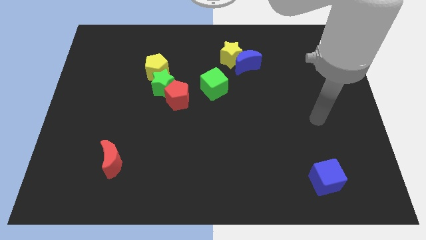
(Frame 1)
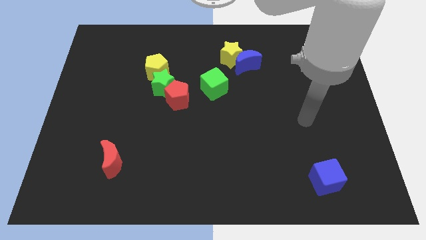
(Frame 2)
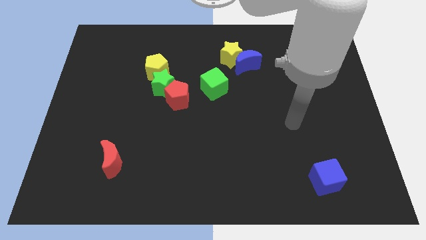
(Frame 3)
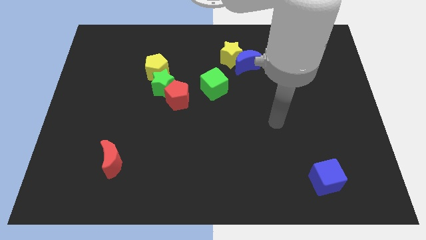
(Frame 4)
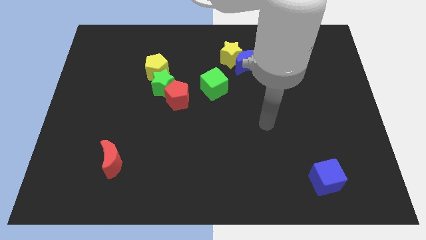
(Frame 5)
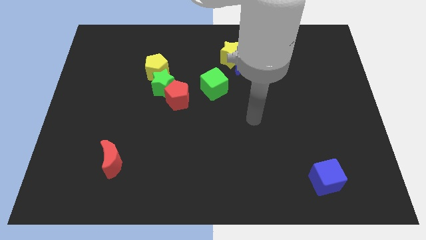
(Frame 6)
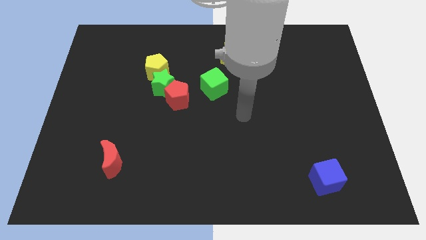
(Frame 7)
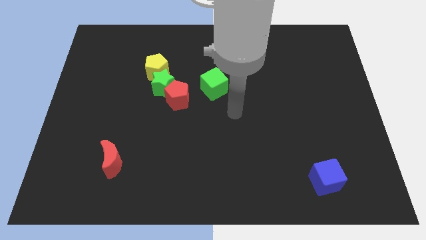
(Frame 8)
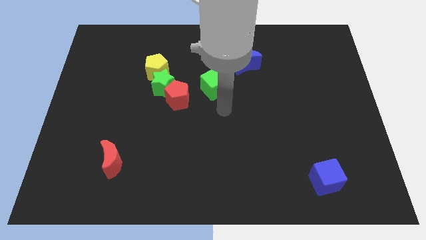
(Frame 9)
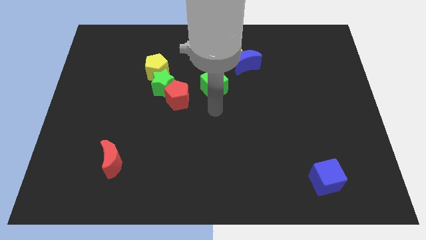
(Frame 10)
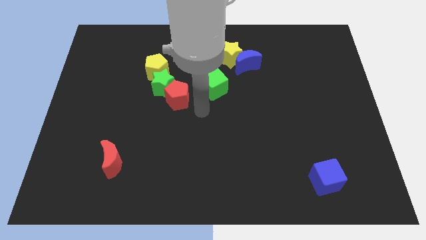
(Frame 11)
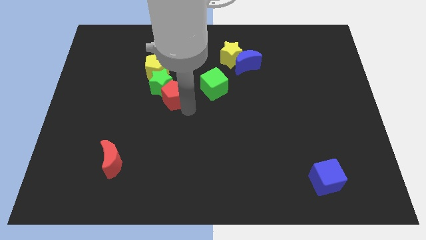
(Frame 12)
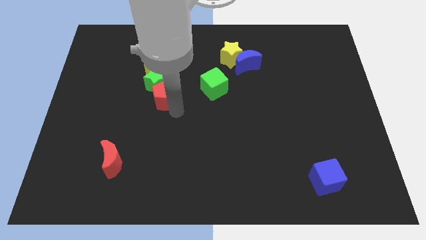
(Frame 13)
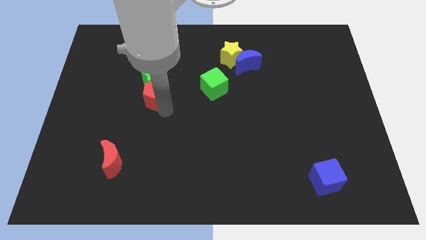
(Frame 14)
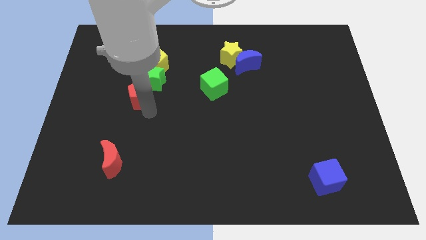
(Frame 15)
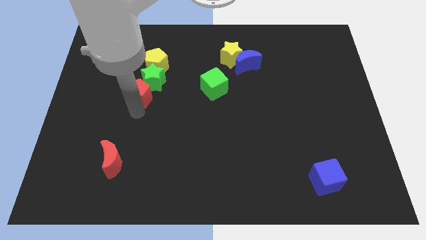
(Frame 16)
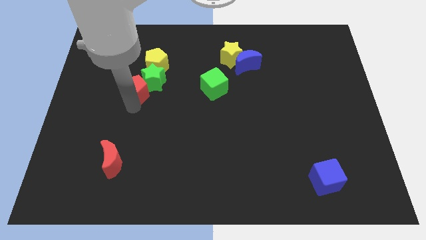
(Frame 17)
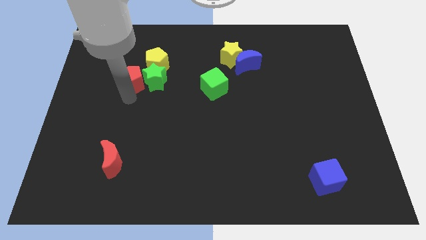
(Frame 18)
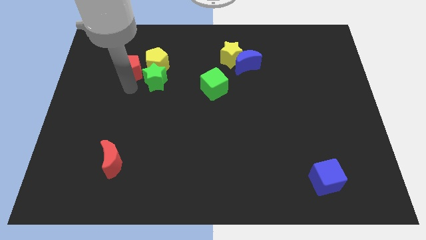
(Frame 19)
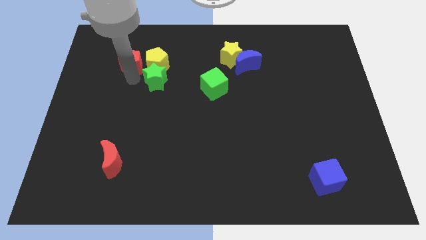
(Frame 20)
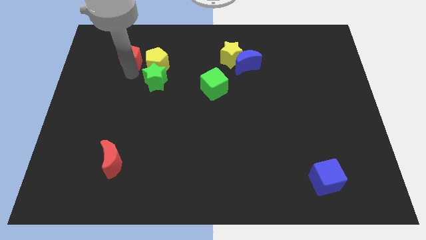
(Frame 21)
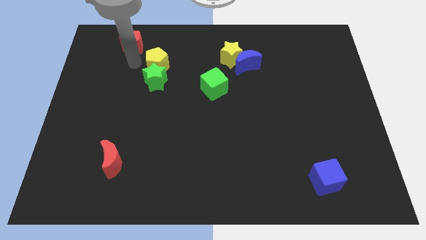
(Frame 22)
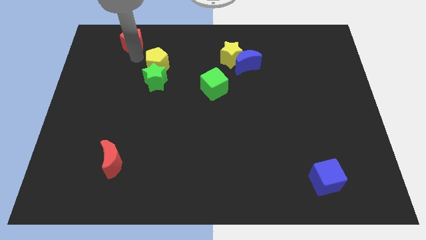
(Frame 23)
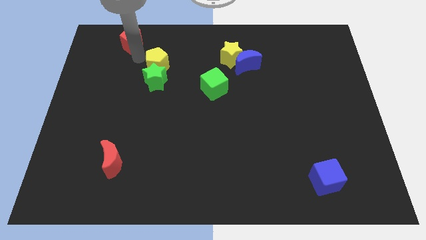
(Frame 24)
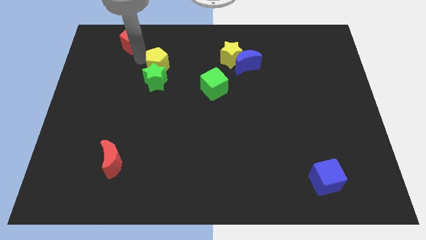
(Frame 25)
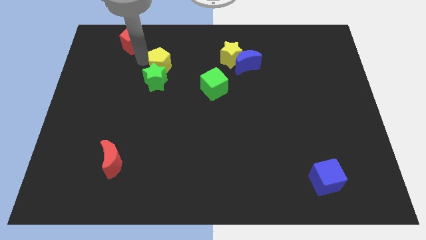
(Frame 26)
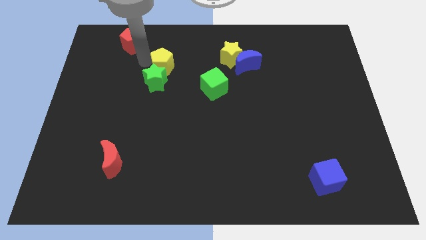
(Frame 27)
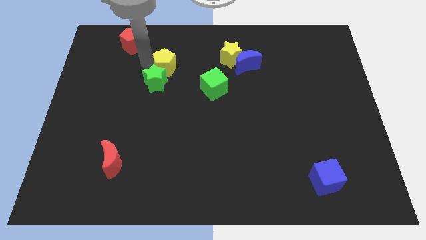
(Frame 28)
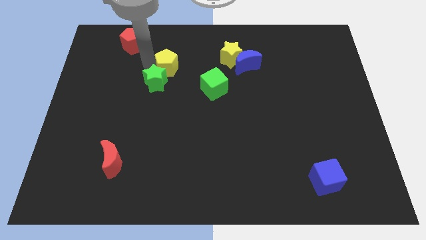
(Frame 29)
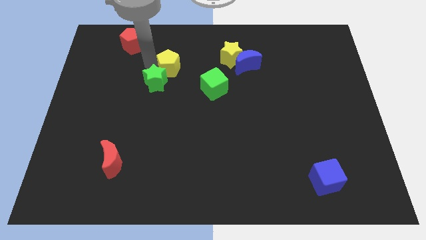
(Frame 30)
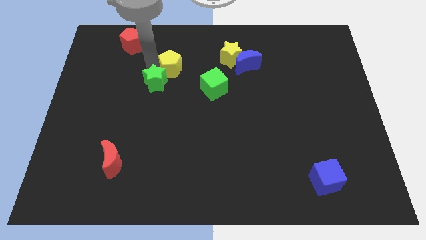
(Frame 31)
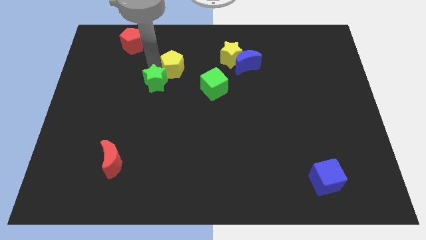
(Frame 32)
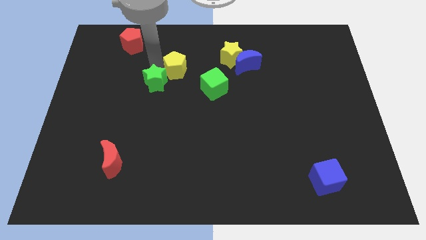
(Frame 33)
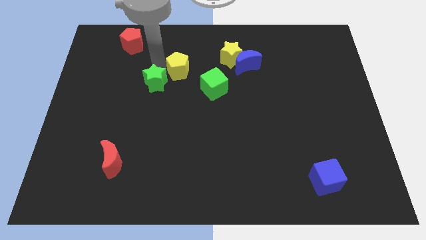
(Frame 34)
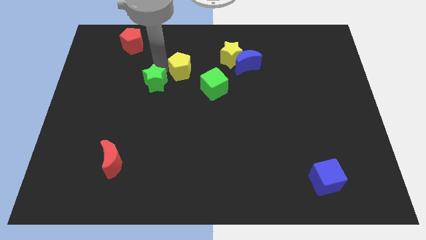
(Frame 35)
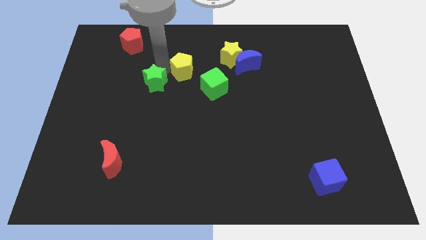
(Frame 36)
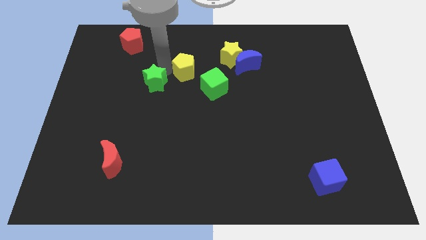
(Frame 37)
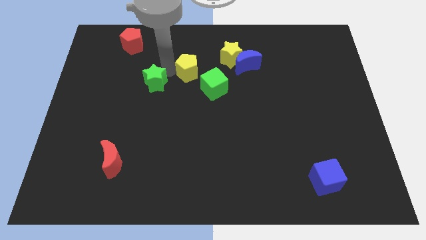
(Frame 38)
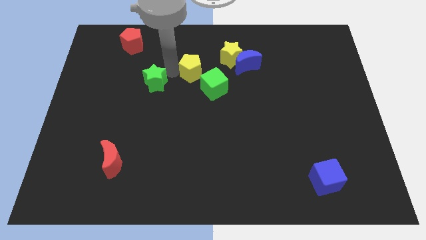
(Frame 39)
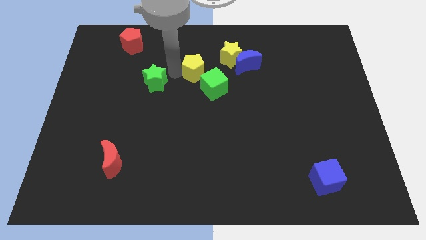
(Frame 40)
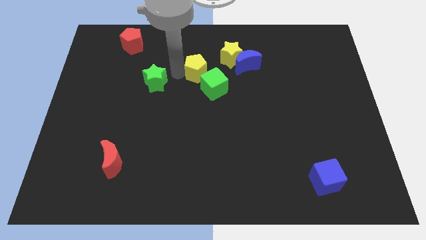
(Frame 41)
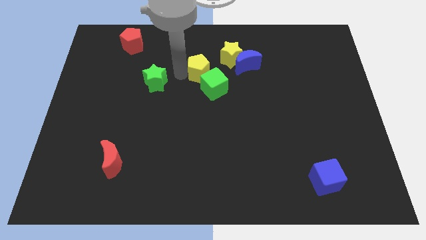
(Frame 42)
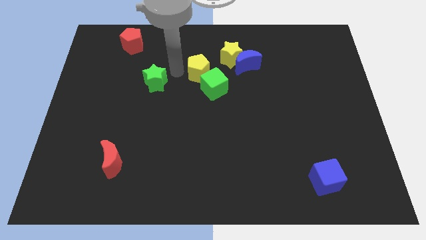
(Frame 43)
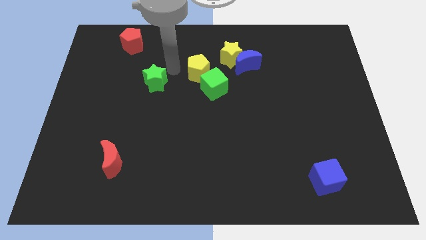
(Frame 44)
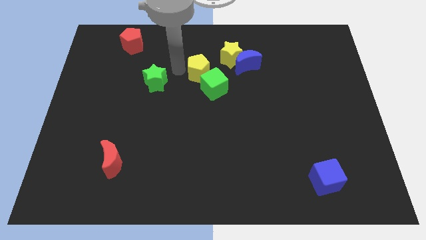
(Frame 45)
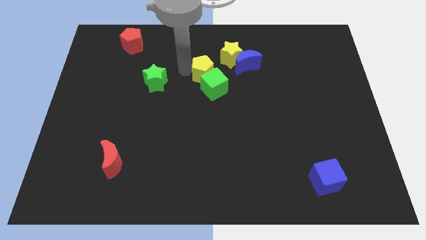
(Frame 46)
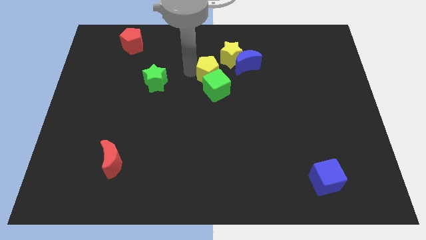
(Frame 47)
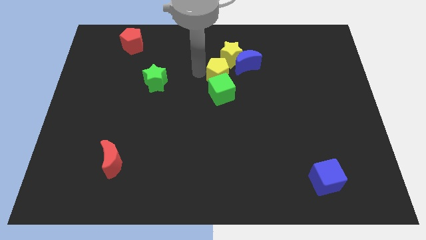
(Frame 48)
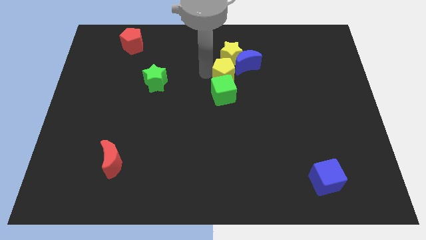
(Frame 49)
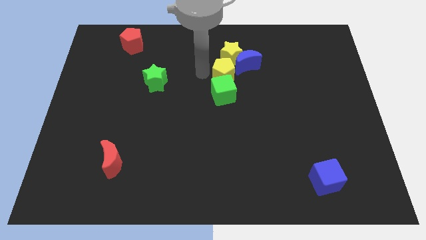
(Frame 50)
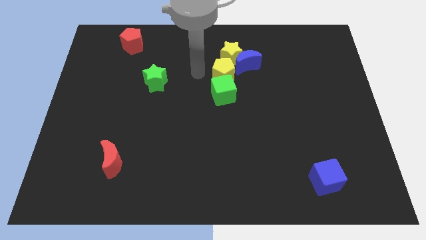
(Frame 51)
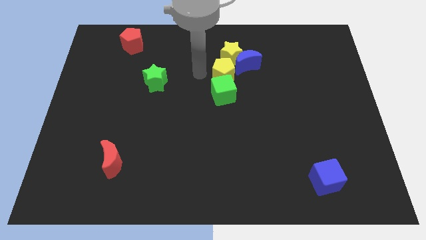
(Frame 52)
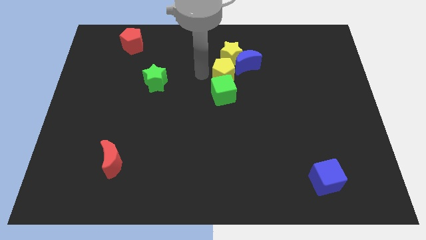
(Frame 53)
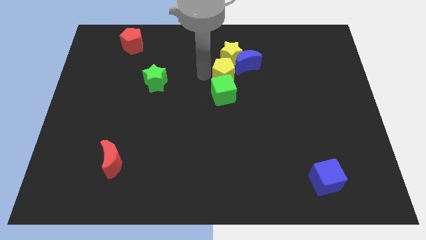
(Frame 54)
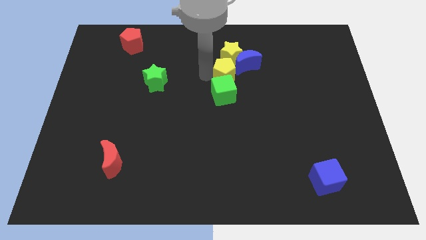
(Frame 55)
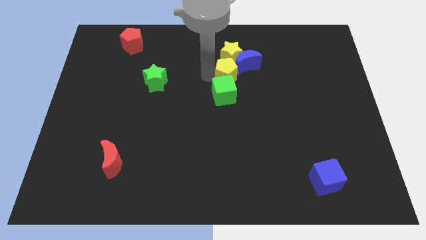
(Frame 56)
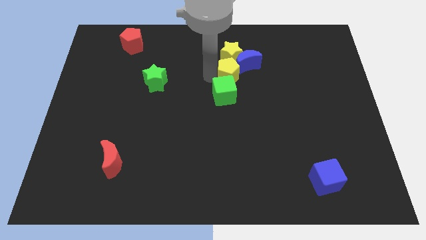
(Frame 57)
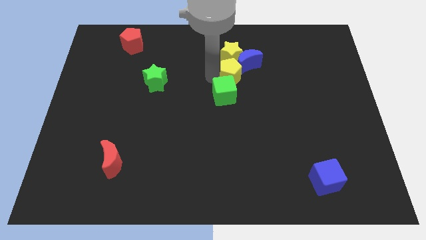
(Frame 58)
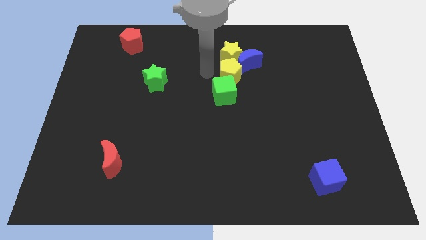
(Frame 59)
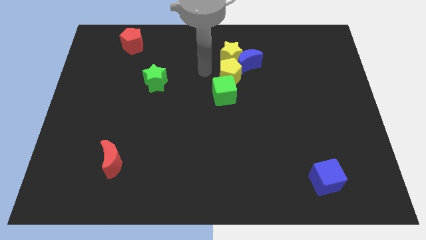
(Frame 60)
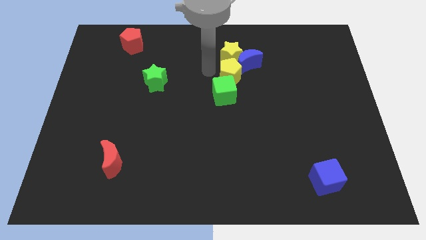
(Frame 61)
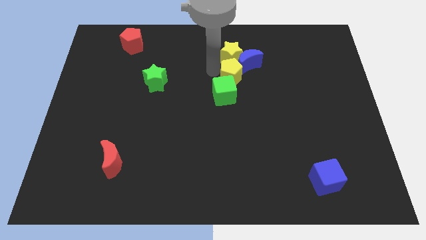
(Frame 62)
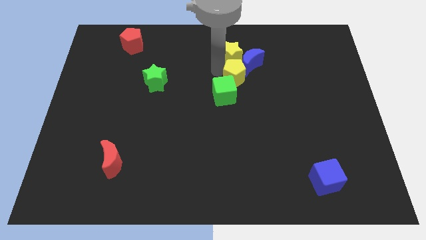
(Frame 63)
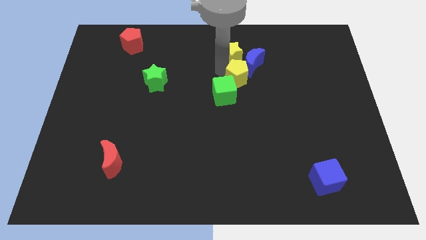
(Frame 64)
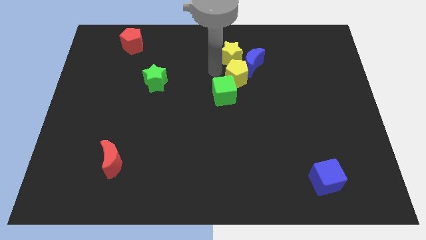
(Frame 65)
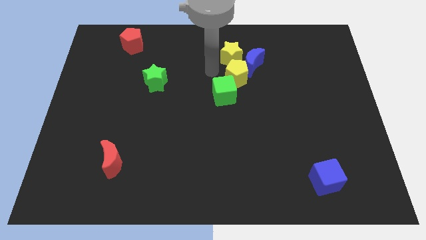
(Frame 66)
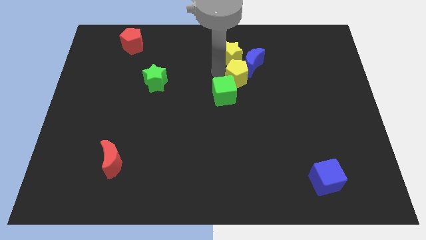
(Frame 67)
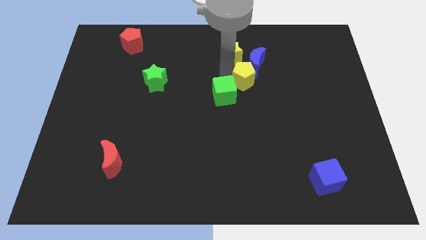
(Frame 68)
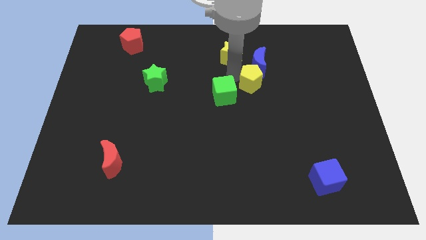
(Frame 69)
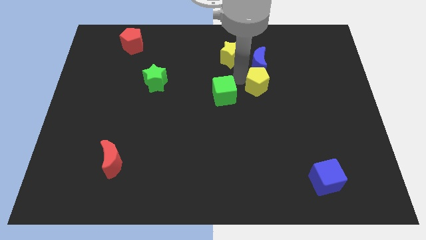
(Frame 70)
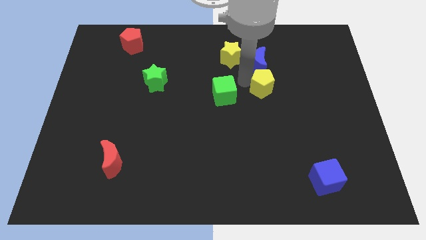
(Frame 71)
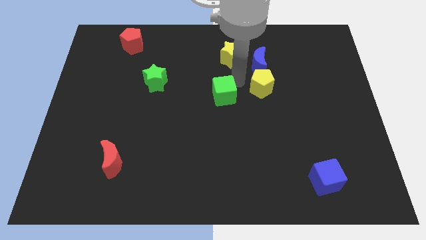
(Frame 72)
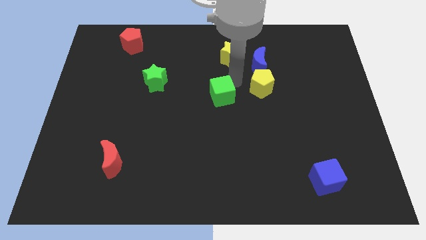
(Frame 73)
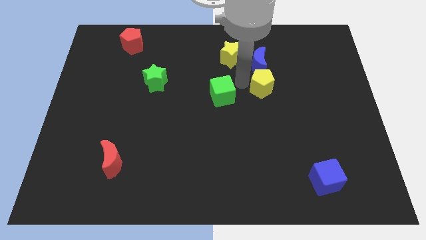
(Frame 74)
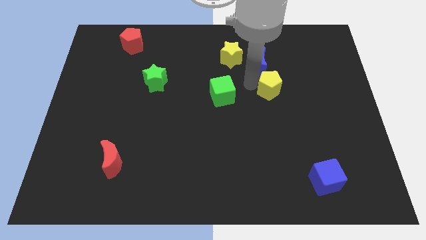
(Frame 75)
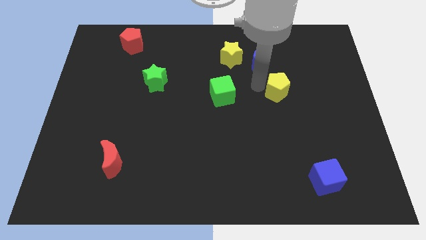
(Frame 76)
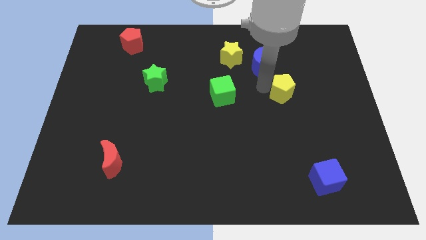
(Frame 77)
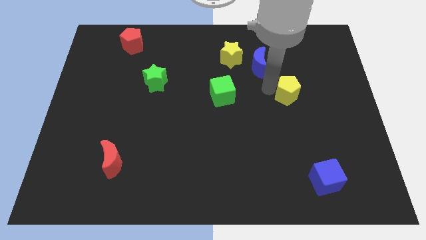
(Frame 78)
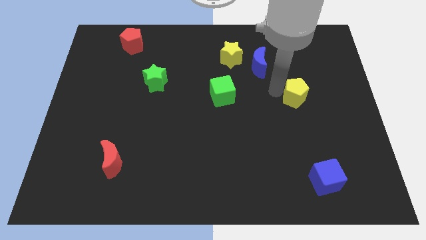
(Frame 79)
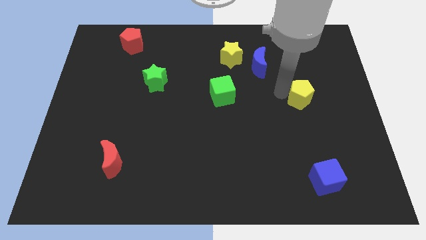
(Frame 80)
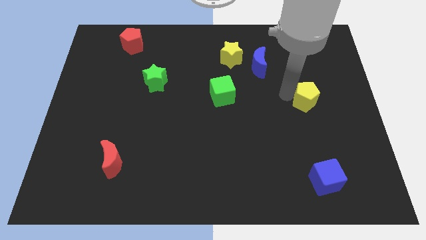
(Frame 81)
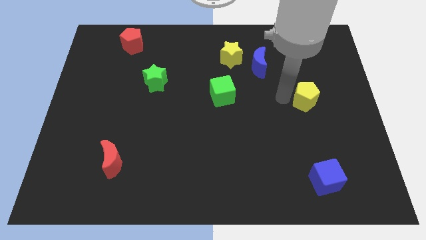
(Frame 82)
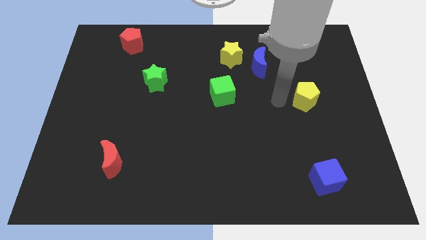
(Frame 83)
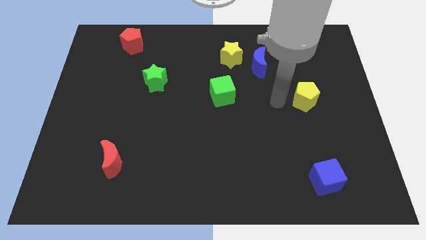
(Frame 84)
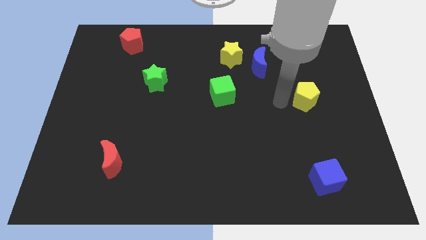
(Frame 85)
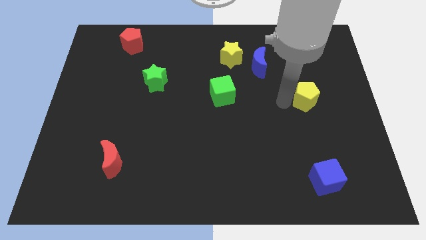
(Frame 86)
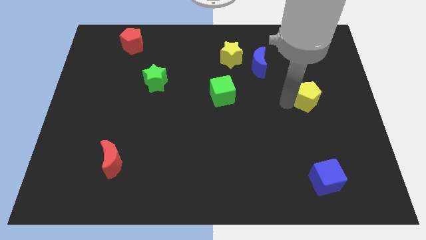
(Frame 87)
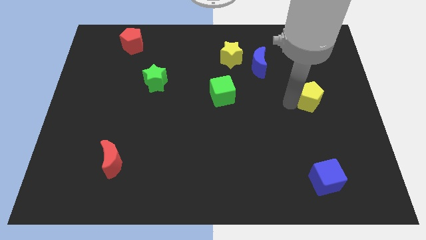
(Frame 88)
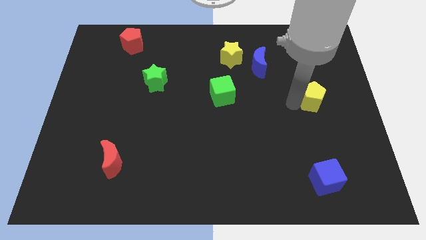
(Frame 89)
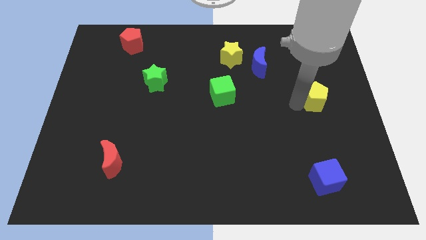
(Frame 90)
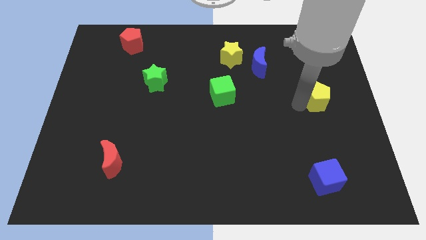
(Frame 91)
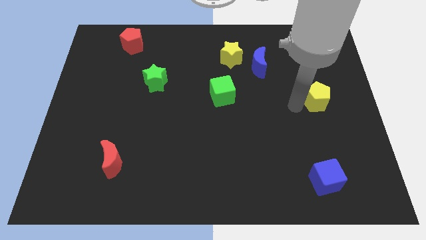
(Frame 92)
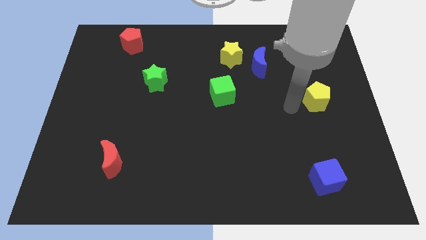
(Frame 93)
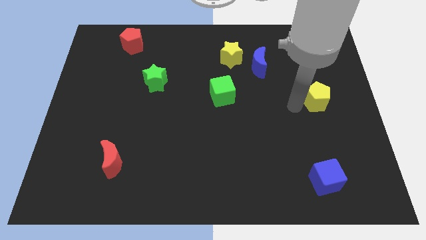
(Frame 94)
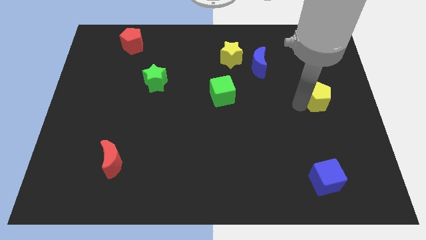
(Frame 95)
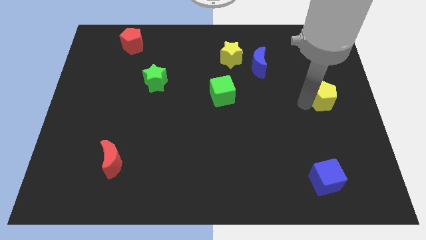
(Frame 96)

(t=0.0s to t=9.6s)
push the yellow pentagon to the right side
